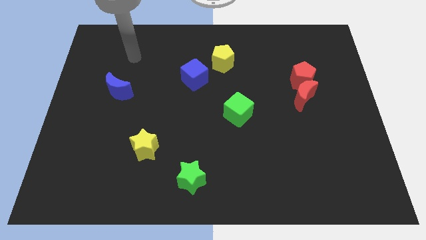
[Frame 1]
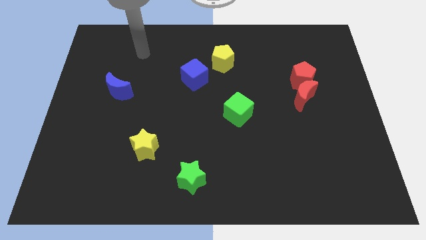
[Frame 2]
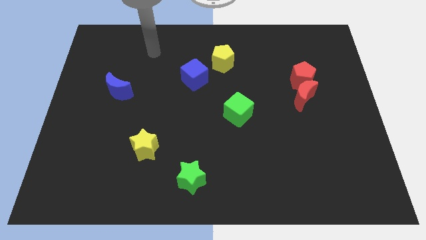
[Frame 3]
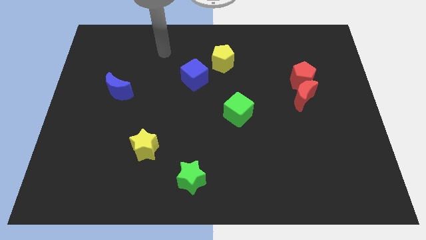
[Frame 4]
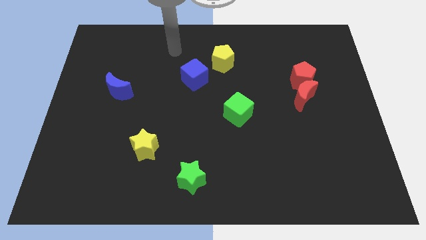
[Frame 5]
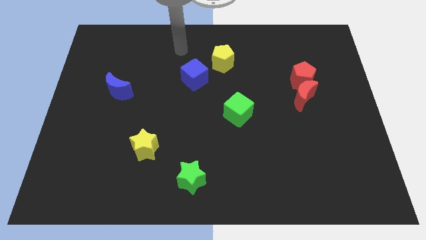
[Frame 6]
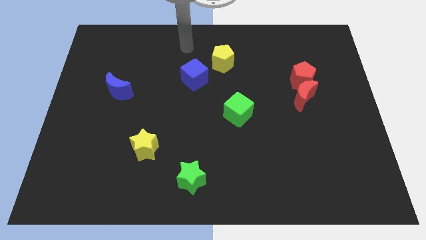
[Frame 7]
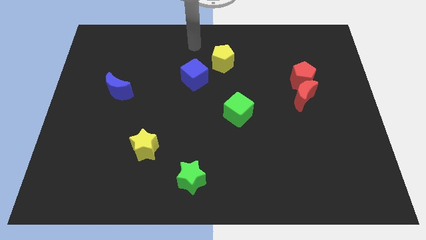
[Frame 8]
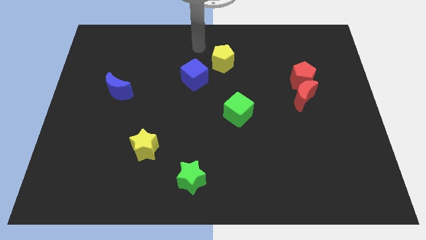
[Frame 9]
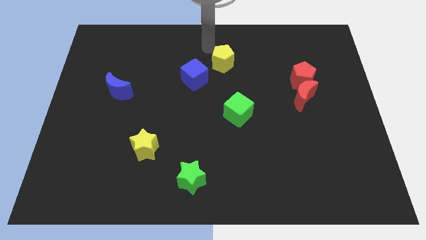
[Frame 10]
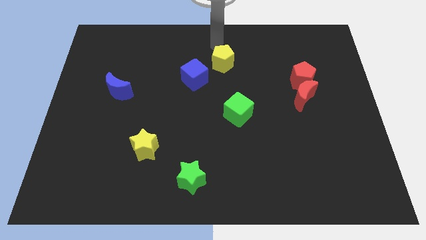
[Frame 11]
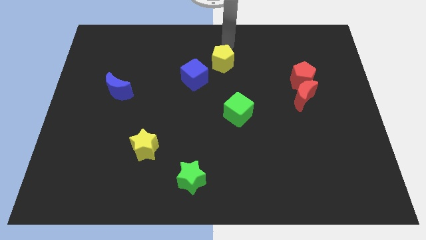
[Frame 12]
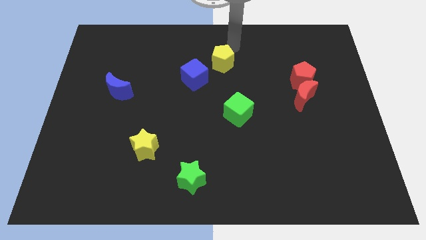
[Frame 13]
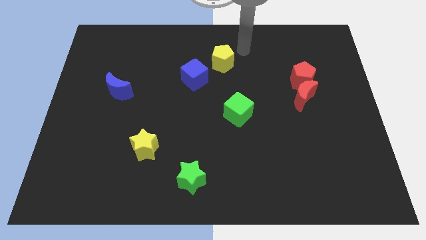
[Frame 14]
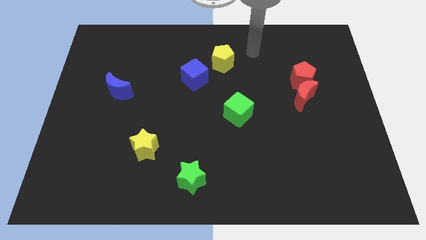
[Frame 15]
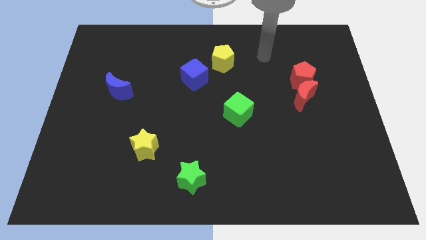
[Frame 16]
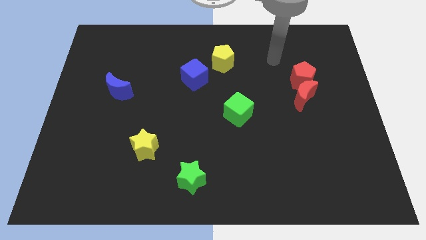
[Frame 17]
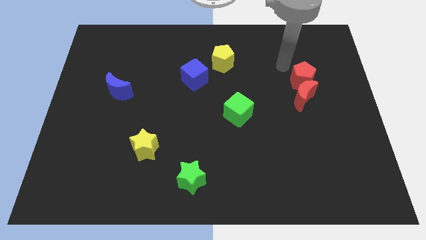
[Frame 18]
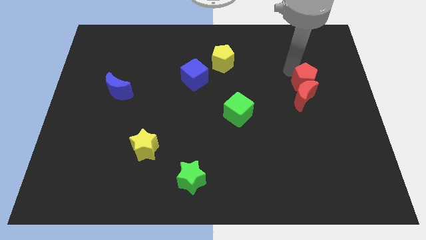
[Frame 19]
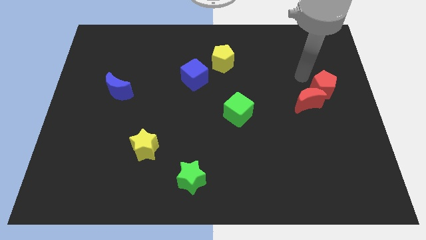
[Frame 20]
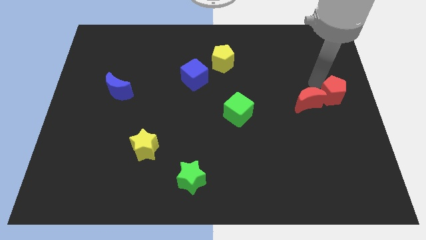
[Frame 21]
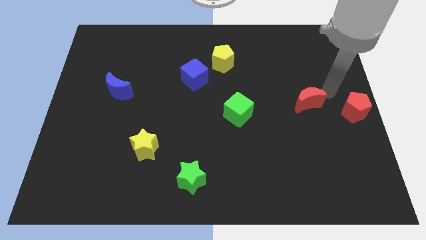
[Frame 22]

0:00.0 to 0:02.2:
pull the red moon apart from the red pentagon

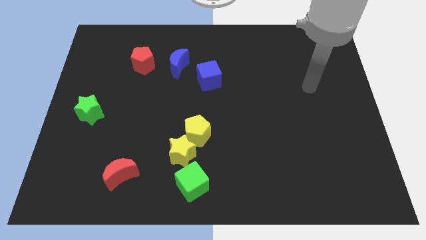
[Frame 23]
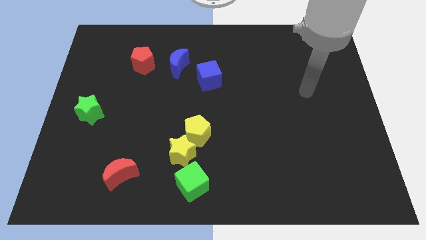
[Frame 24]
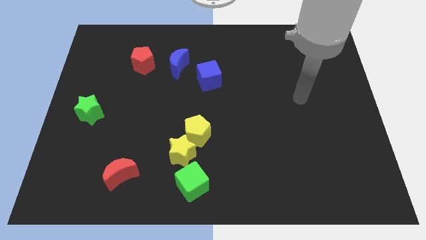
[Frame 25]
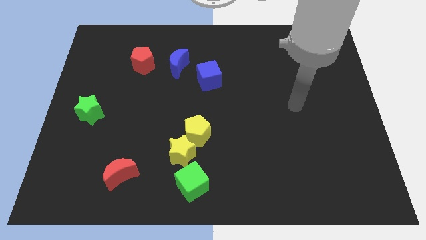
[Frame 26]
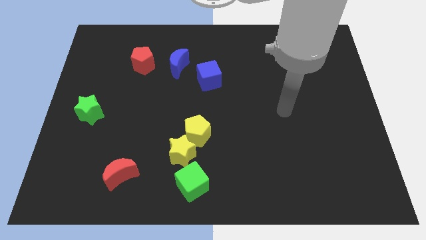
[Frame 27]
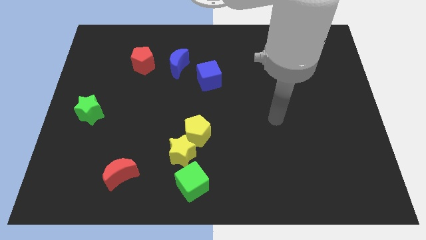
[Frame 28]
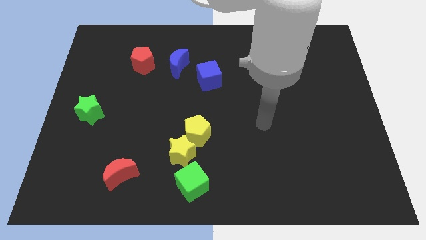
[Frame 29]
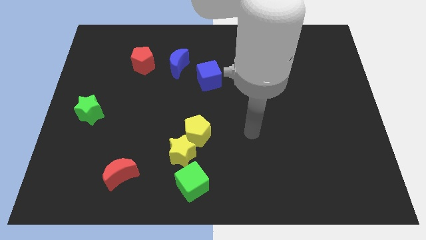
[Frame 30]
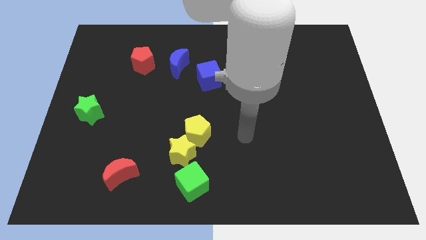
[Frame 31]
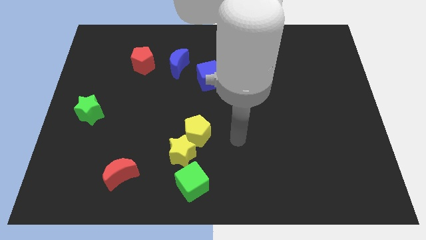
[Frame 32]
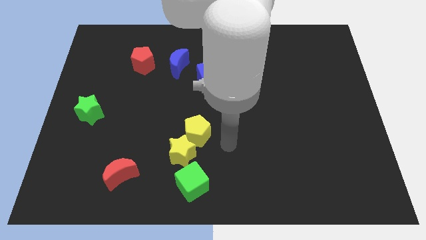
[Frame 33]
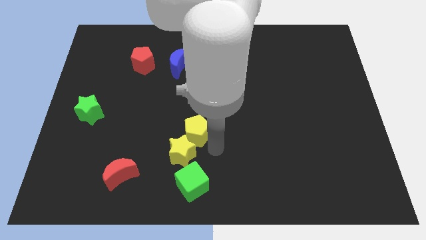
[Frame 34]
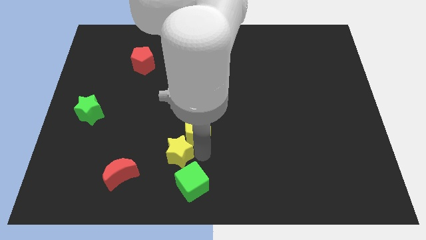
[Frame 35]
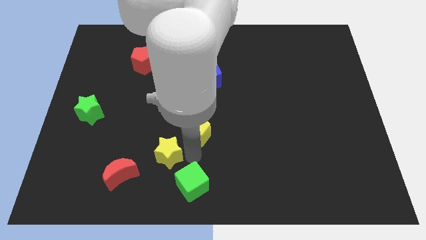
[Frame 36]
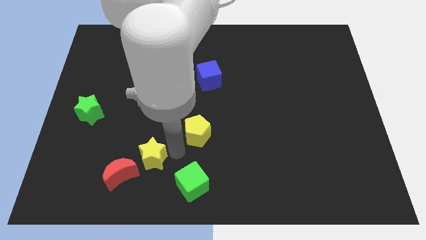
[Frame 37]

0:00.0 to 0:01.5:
separate the yellow pentagon from the yellow star

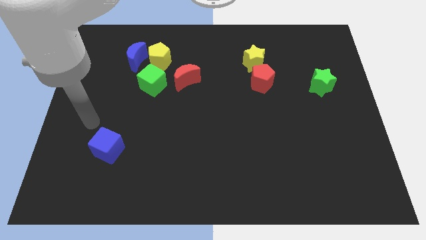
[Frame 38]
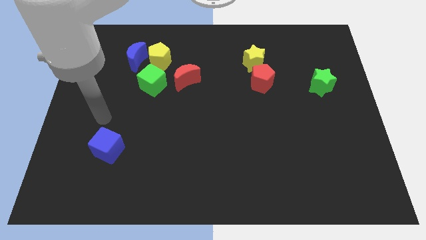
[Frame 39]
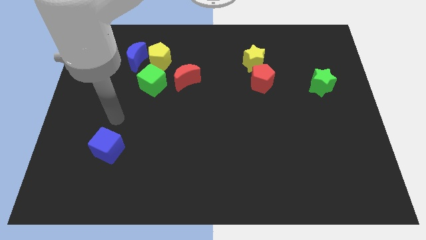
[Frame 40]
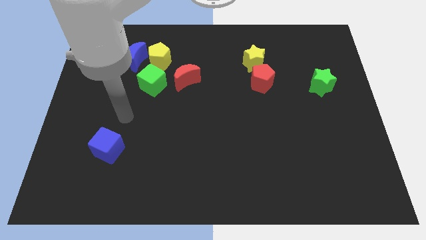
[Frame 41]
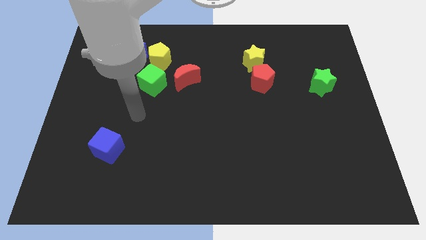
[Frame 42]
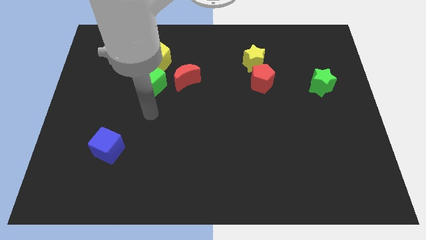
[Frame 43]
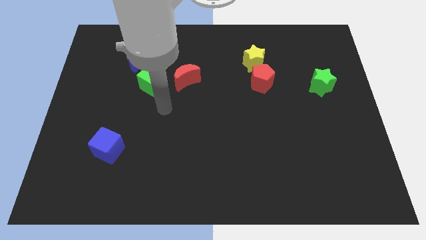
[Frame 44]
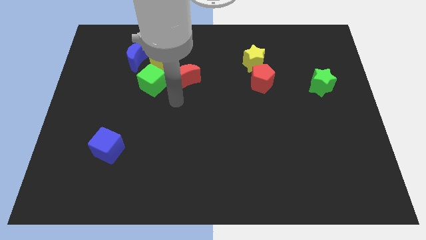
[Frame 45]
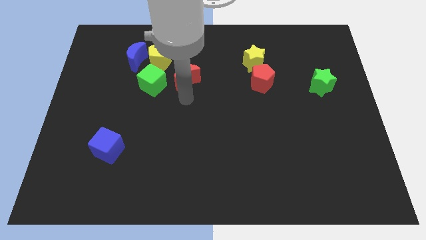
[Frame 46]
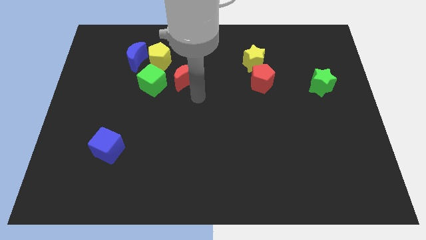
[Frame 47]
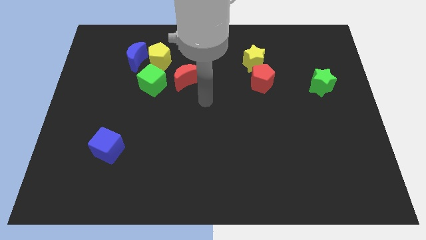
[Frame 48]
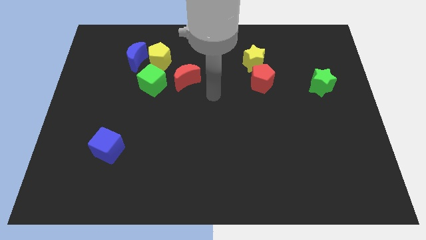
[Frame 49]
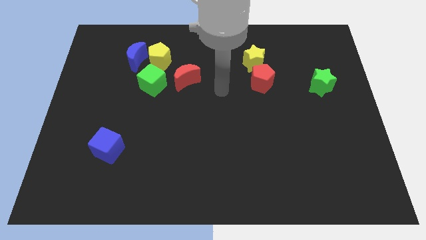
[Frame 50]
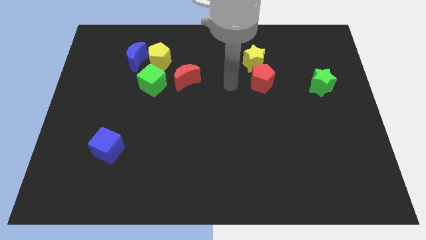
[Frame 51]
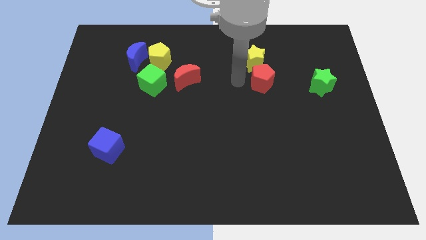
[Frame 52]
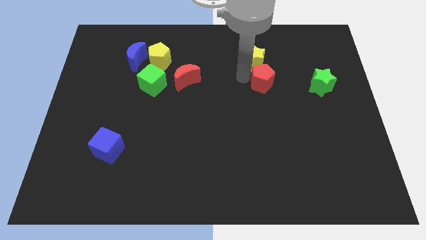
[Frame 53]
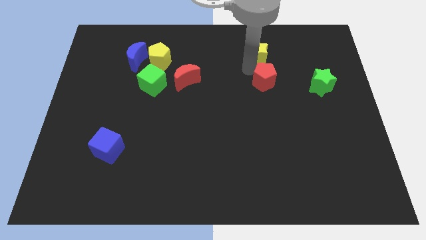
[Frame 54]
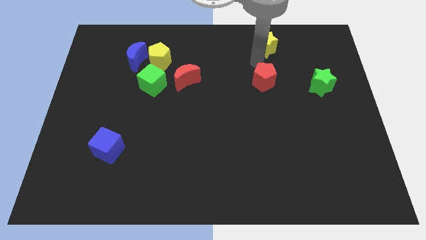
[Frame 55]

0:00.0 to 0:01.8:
move the red pentagon away from the yellow star

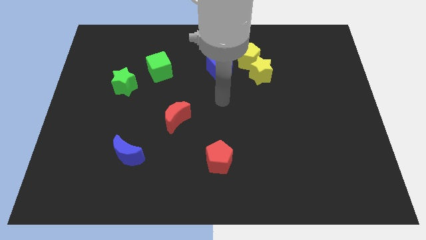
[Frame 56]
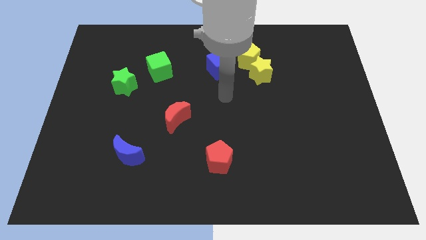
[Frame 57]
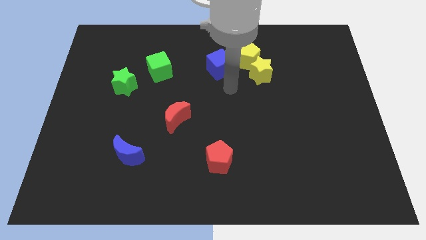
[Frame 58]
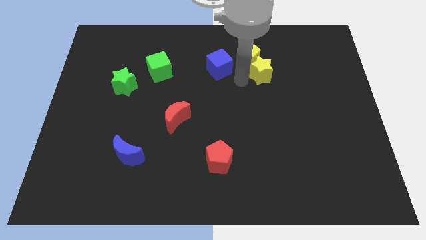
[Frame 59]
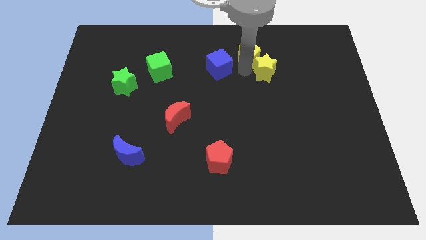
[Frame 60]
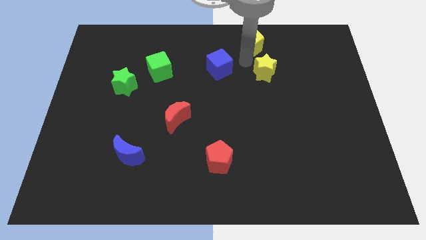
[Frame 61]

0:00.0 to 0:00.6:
separate the yellow star from the yellow pentagon

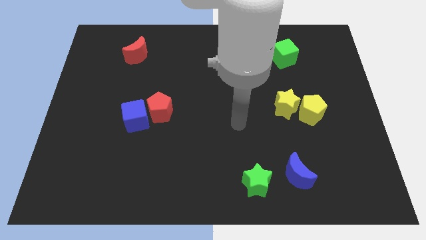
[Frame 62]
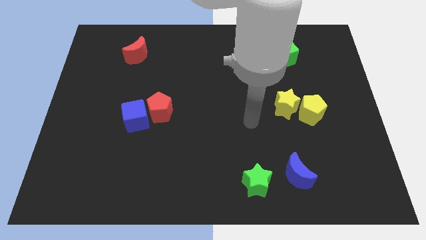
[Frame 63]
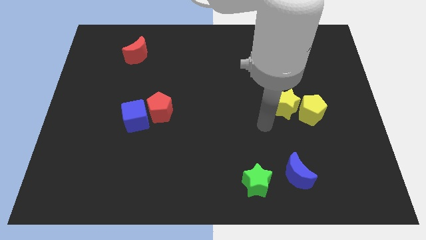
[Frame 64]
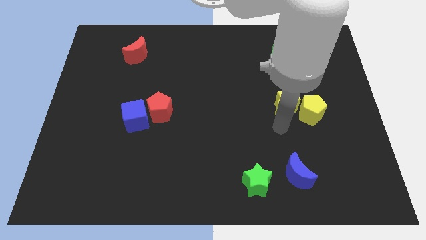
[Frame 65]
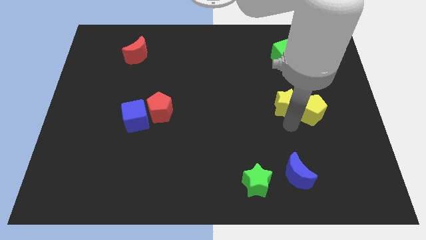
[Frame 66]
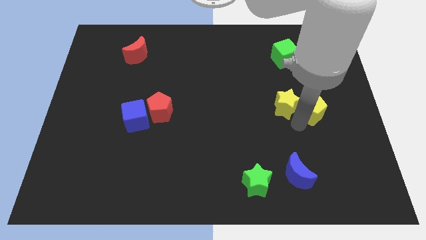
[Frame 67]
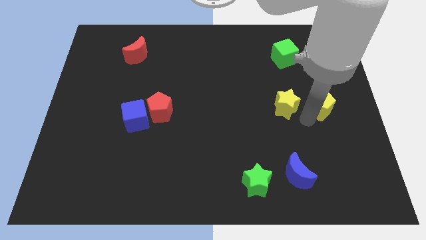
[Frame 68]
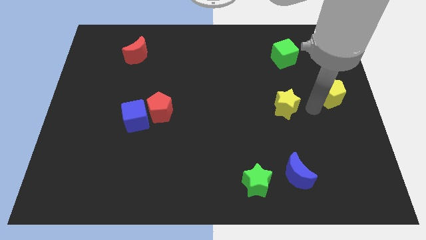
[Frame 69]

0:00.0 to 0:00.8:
move the yellow star away from the yellow pentagon

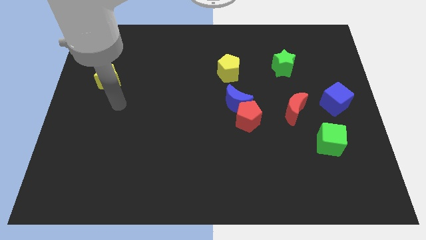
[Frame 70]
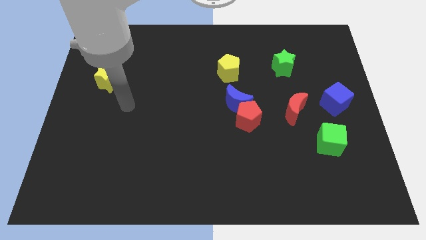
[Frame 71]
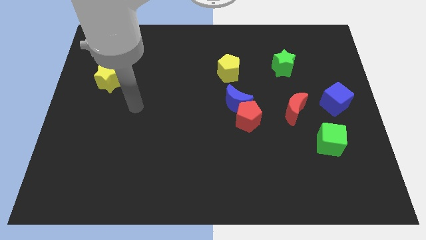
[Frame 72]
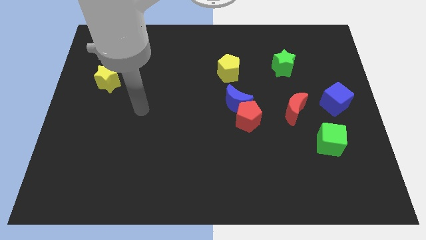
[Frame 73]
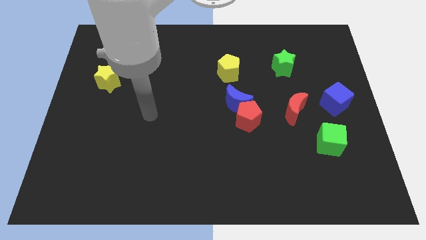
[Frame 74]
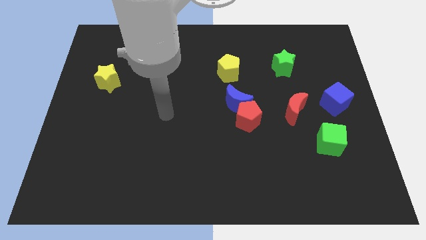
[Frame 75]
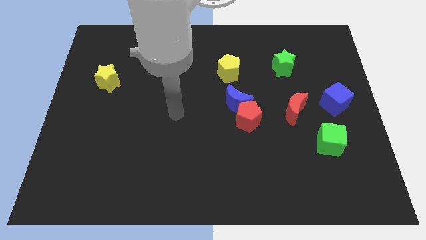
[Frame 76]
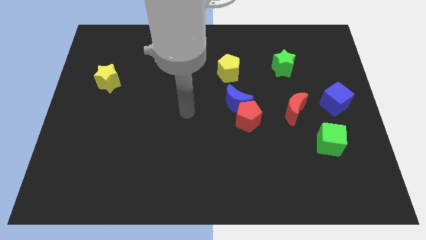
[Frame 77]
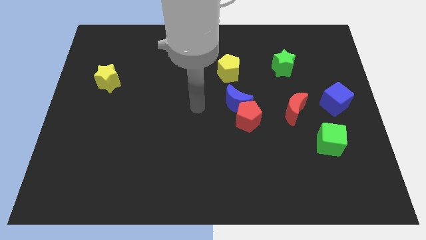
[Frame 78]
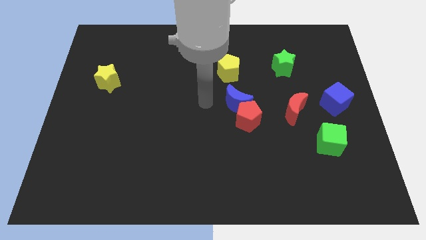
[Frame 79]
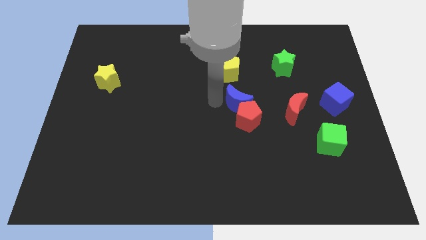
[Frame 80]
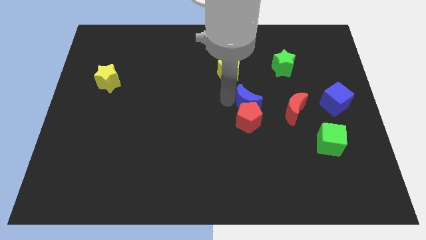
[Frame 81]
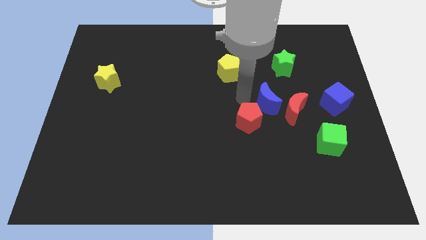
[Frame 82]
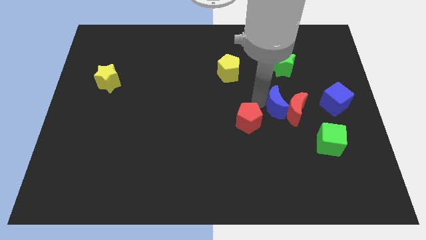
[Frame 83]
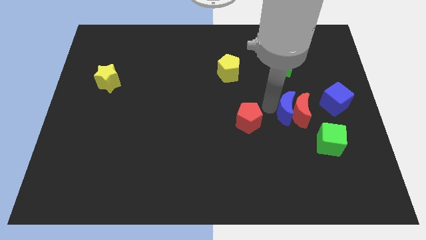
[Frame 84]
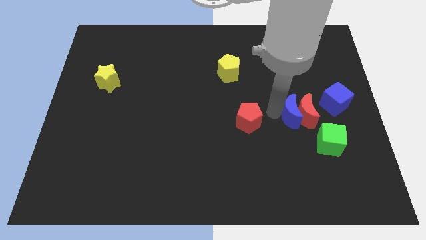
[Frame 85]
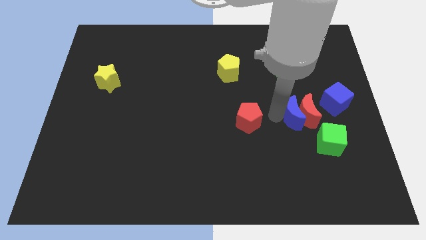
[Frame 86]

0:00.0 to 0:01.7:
move the red pentagon away from the blue moon

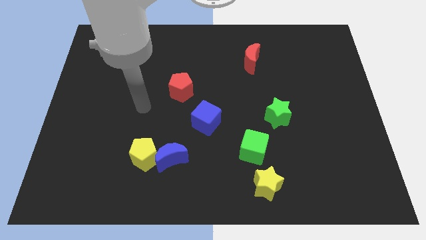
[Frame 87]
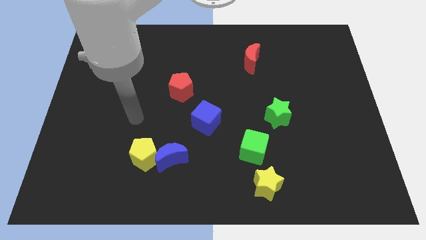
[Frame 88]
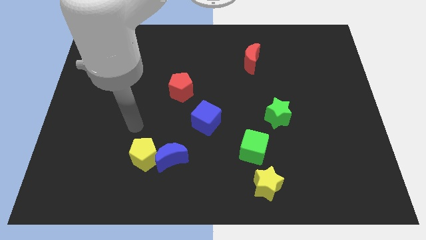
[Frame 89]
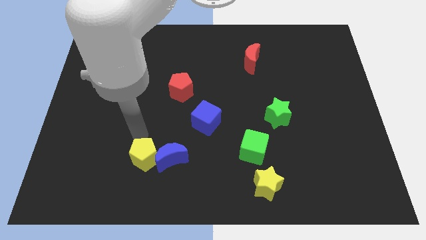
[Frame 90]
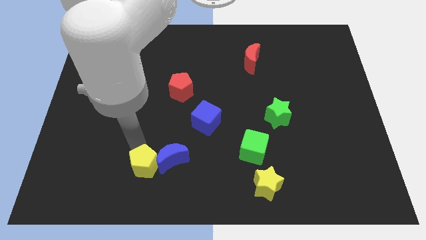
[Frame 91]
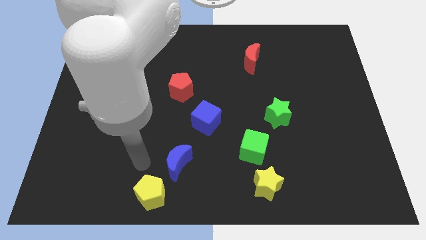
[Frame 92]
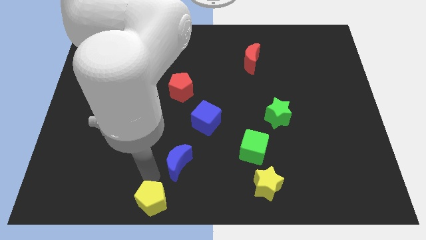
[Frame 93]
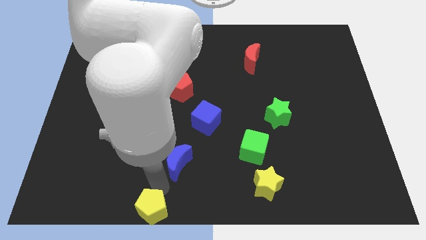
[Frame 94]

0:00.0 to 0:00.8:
separate the blue moon from the yellow pentagon
